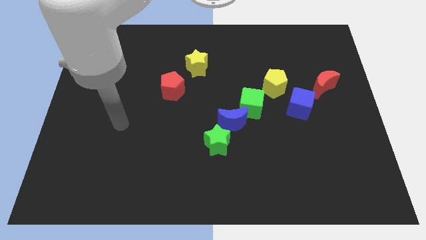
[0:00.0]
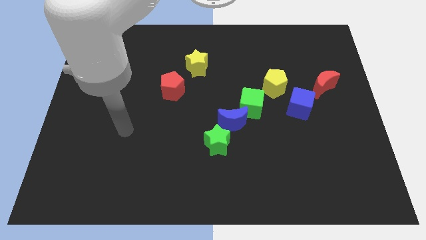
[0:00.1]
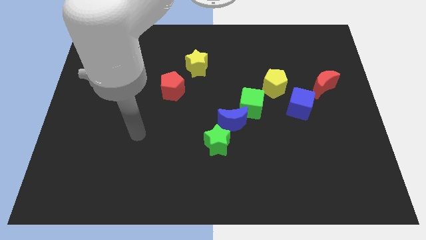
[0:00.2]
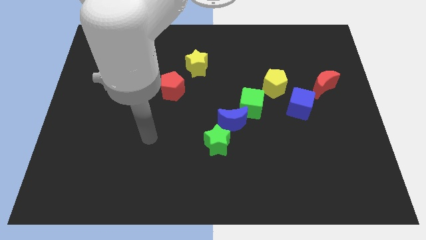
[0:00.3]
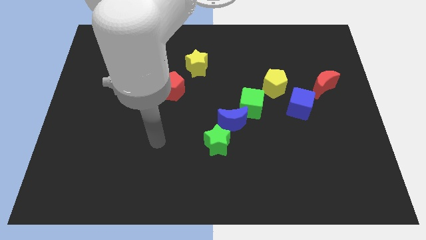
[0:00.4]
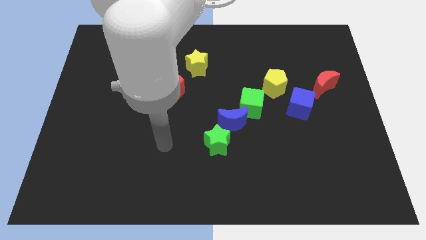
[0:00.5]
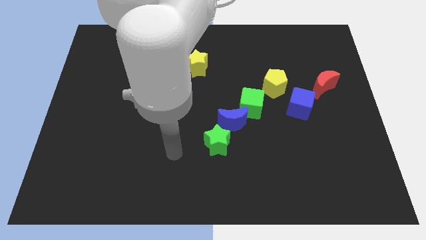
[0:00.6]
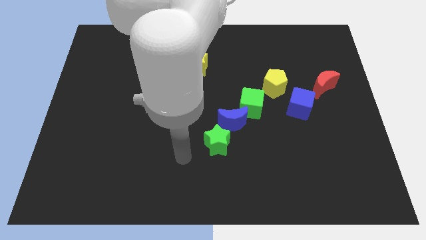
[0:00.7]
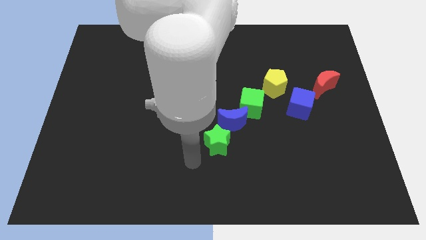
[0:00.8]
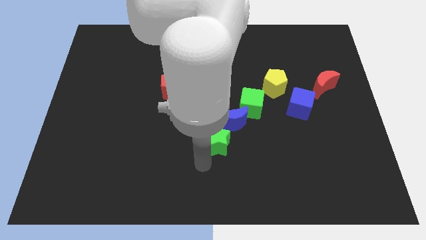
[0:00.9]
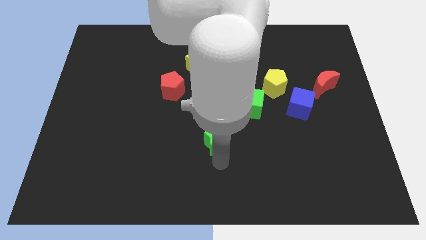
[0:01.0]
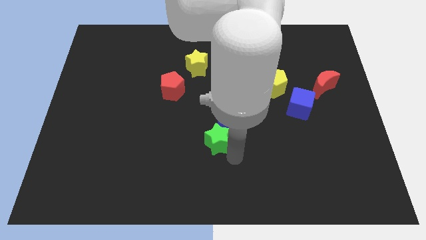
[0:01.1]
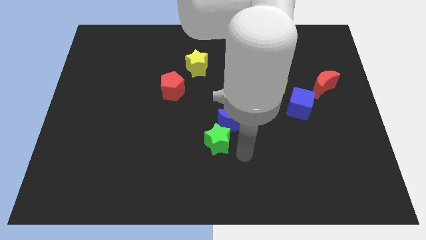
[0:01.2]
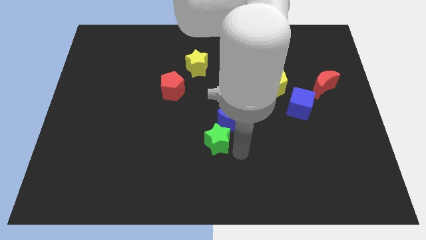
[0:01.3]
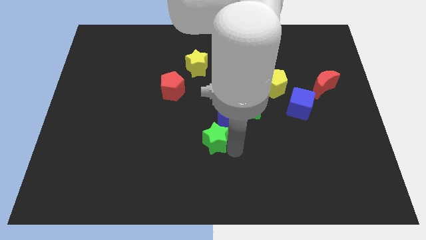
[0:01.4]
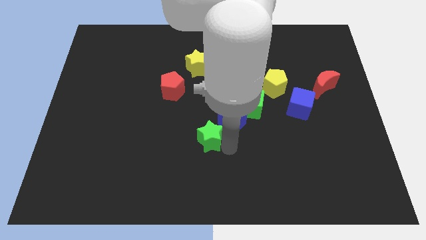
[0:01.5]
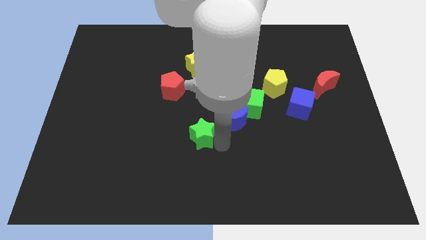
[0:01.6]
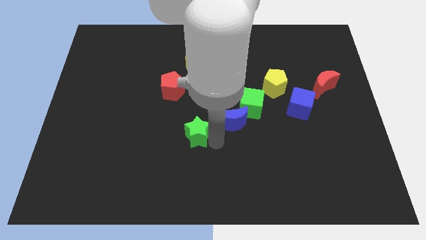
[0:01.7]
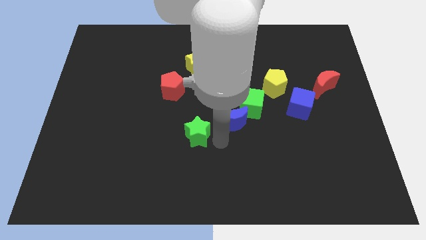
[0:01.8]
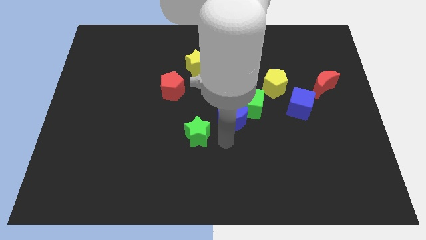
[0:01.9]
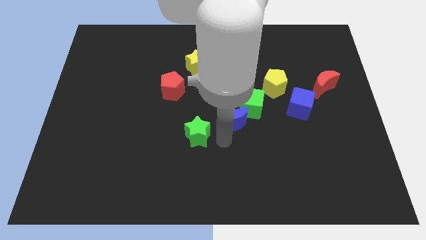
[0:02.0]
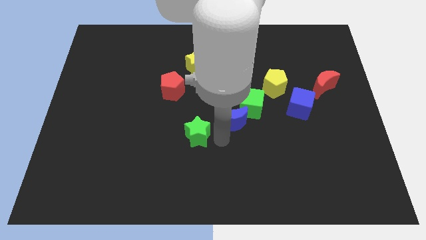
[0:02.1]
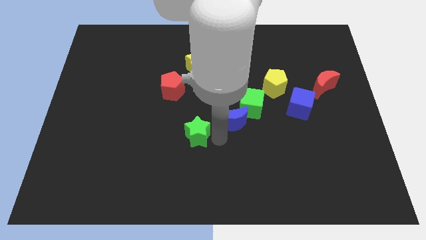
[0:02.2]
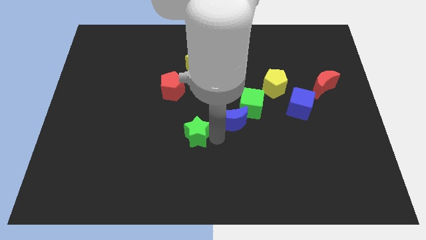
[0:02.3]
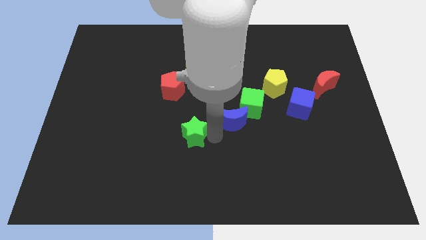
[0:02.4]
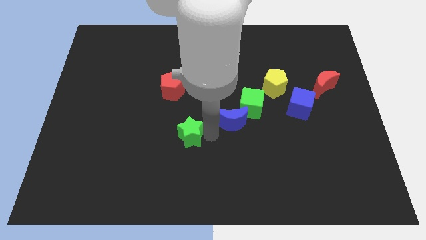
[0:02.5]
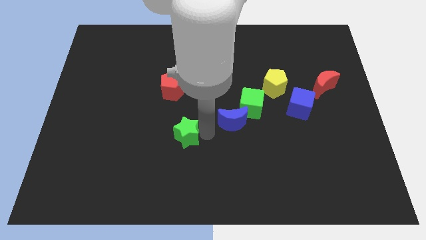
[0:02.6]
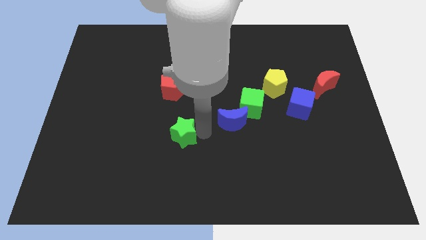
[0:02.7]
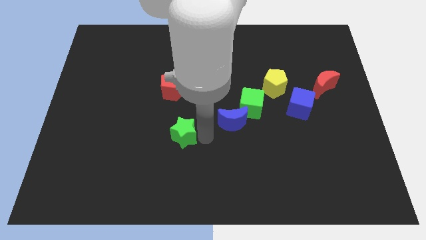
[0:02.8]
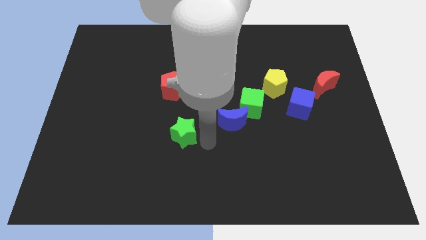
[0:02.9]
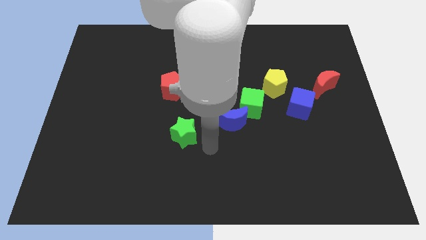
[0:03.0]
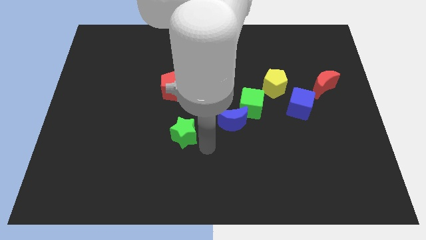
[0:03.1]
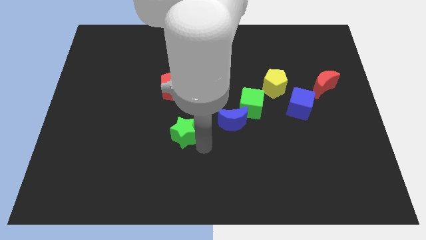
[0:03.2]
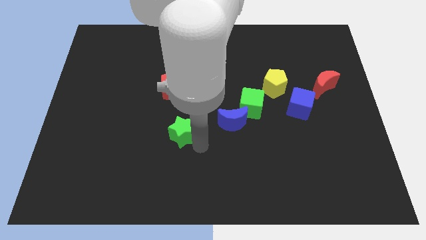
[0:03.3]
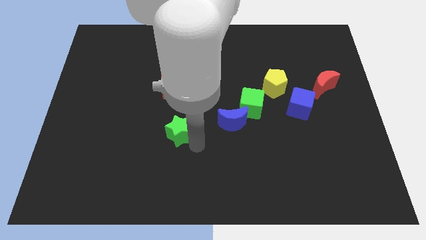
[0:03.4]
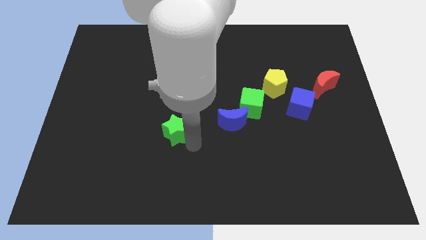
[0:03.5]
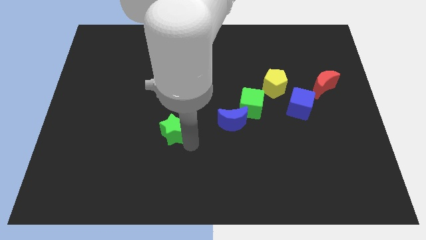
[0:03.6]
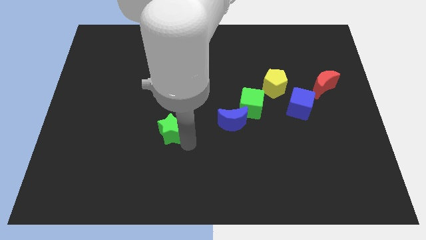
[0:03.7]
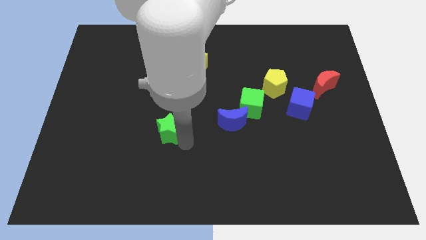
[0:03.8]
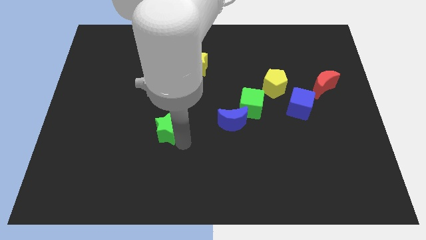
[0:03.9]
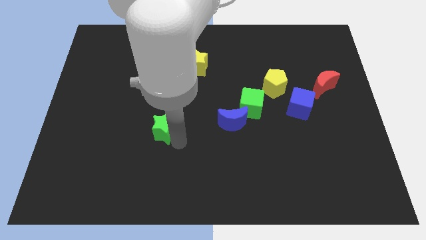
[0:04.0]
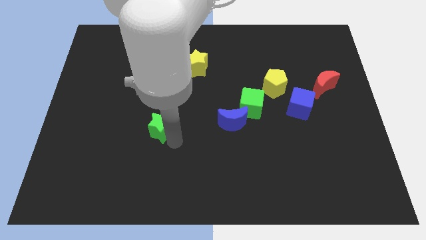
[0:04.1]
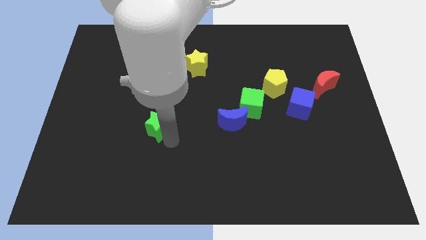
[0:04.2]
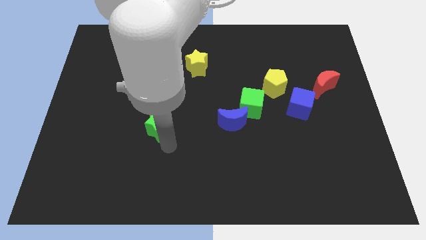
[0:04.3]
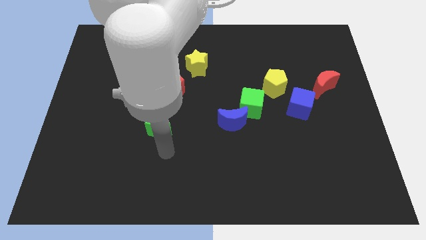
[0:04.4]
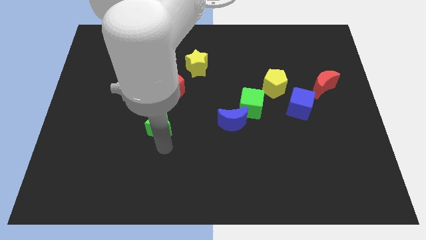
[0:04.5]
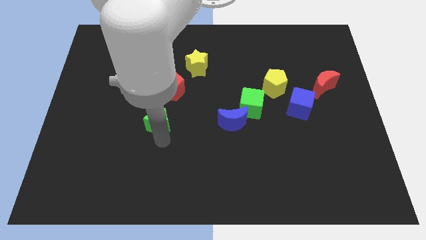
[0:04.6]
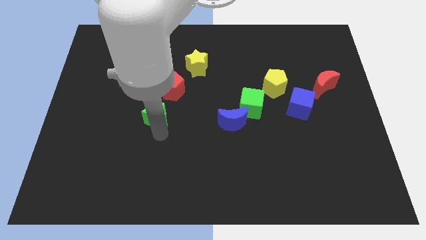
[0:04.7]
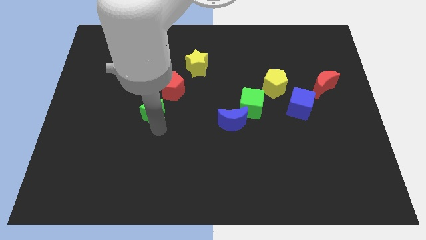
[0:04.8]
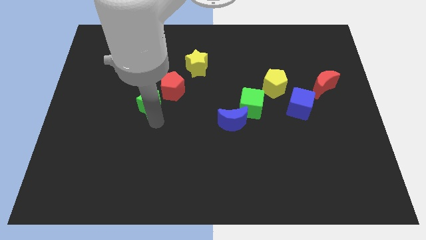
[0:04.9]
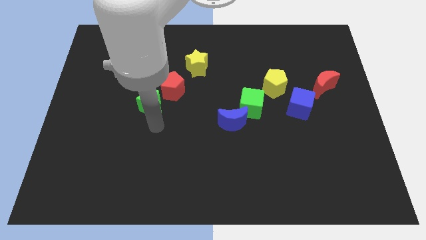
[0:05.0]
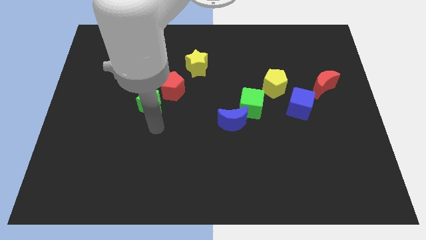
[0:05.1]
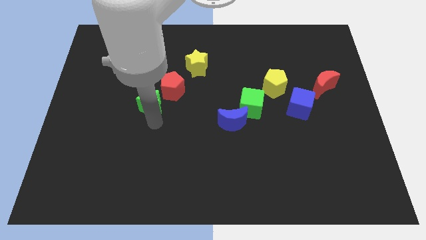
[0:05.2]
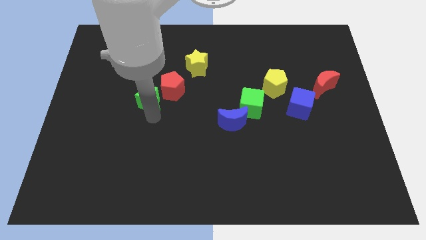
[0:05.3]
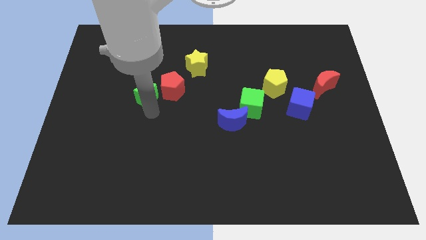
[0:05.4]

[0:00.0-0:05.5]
push the green star up and then left

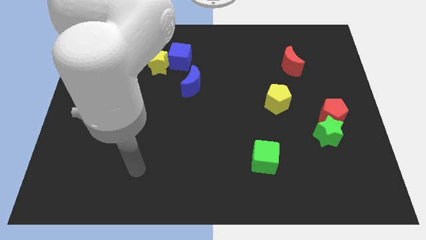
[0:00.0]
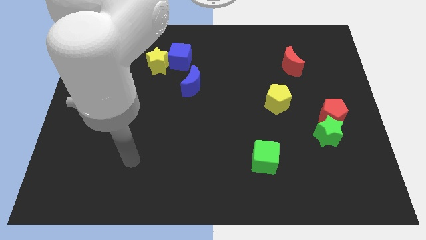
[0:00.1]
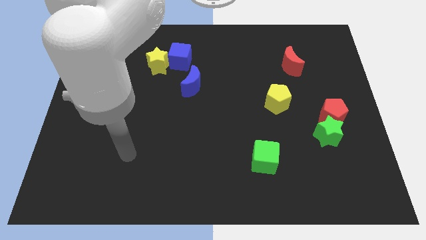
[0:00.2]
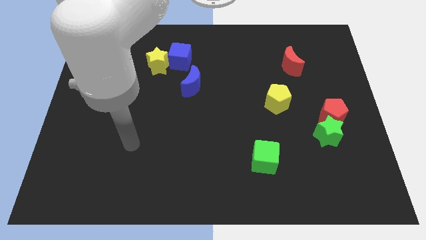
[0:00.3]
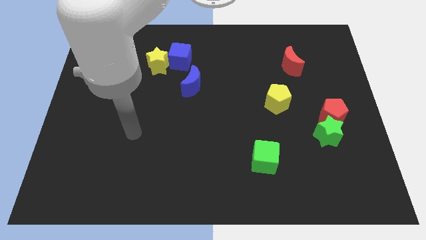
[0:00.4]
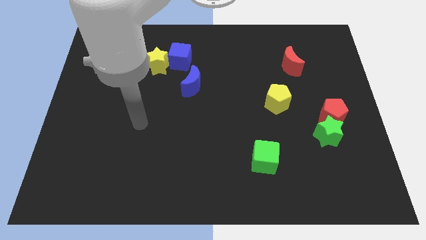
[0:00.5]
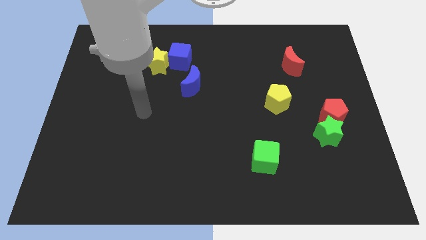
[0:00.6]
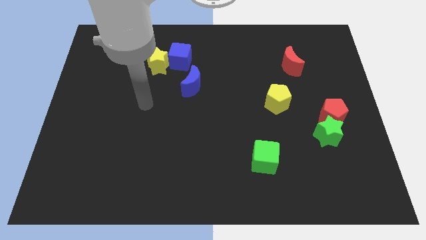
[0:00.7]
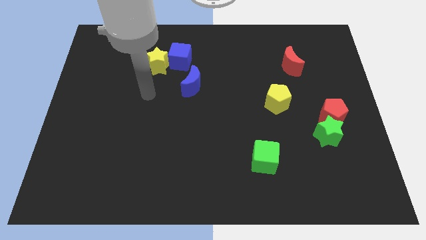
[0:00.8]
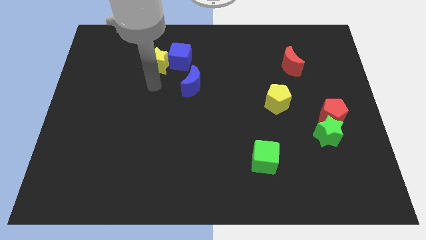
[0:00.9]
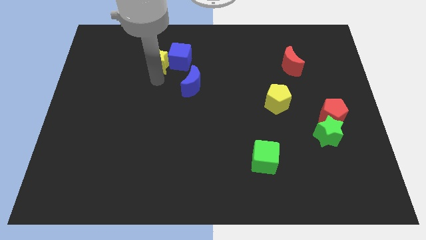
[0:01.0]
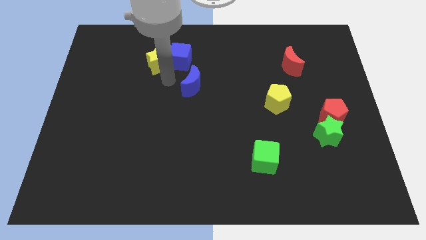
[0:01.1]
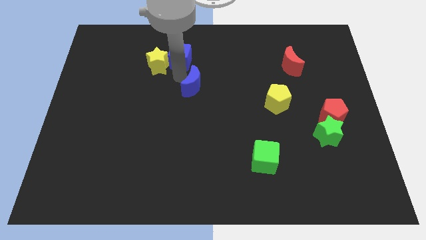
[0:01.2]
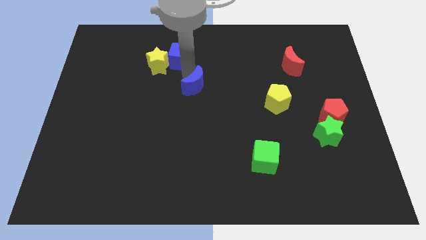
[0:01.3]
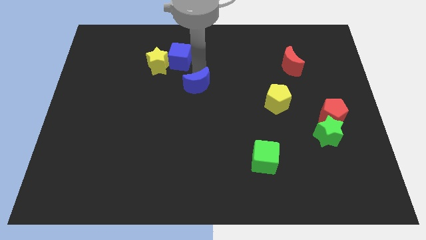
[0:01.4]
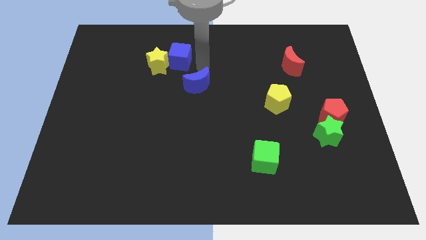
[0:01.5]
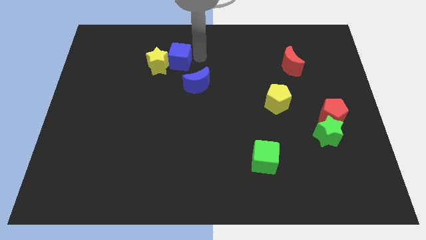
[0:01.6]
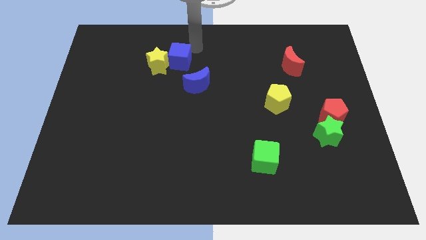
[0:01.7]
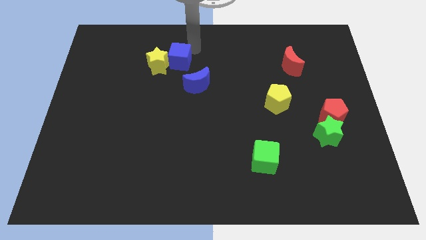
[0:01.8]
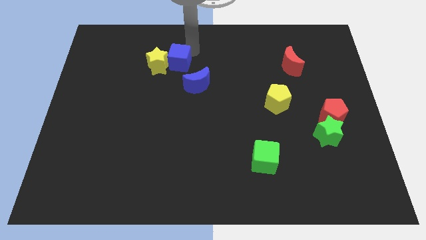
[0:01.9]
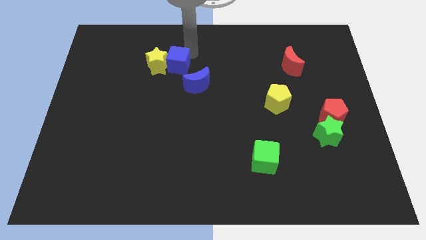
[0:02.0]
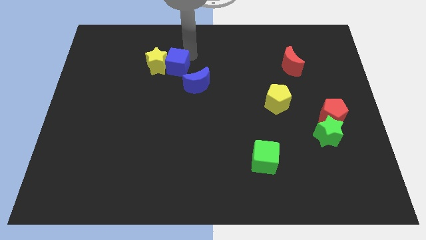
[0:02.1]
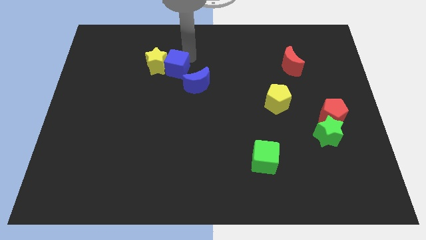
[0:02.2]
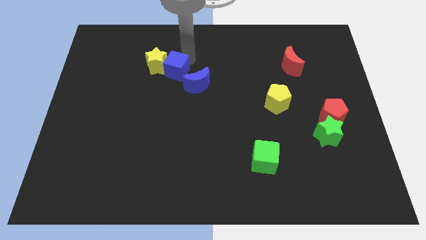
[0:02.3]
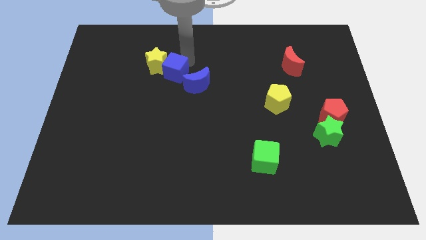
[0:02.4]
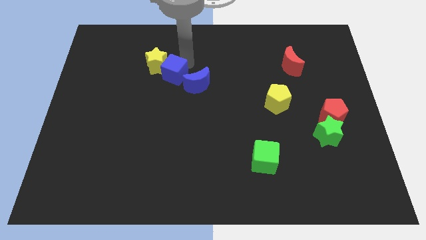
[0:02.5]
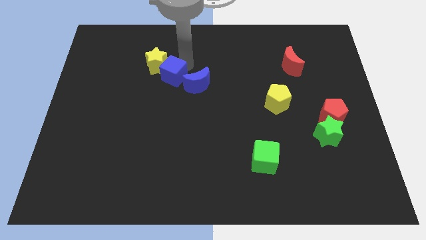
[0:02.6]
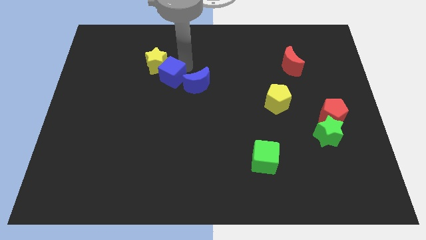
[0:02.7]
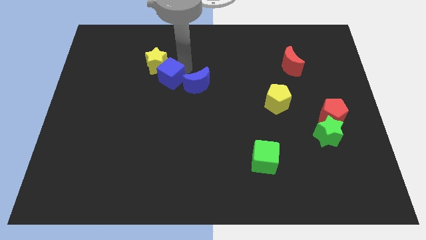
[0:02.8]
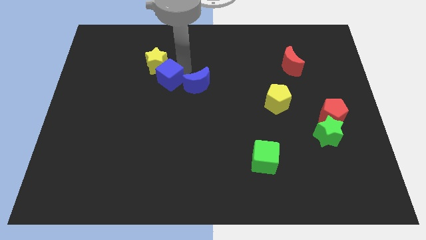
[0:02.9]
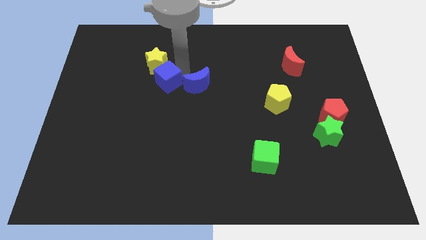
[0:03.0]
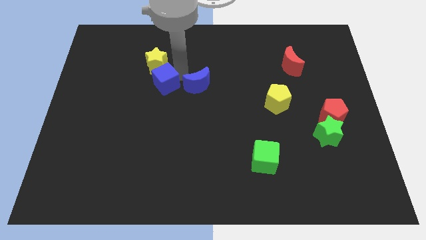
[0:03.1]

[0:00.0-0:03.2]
move the blue cube a little bit downwards and then left
